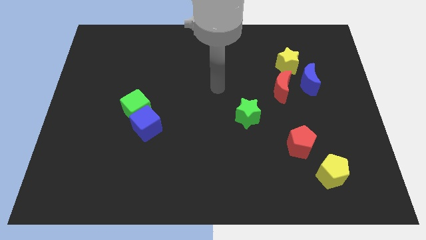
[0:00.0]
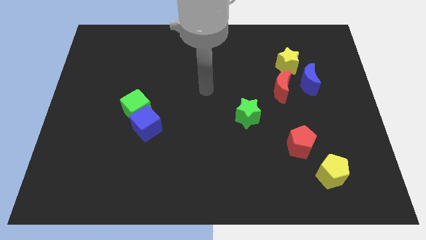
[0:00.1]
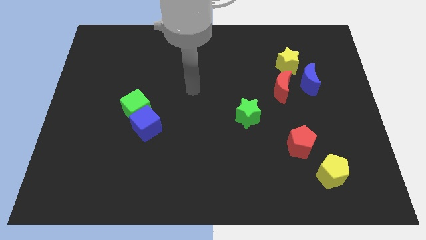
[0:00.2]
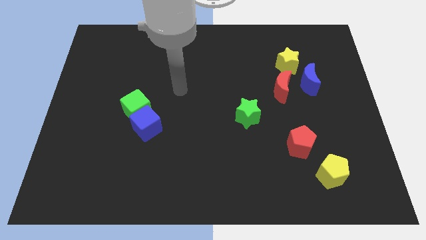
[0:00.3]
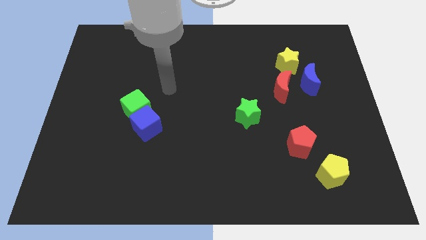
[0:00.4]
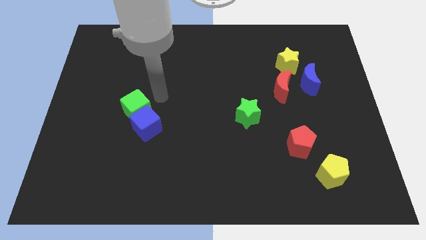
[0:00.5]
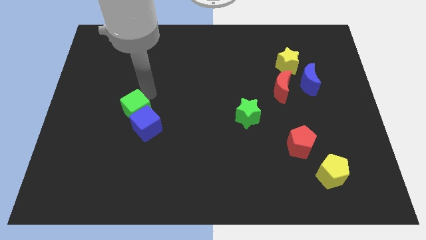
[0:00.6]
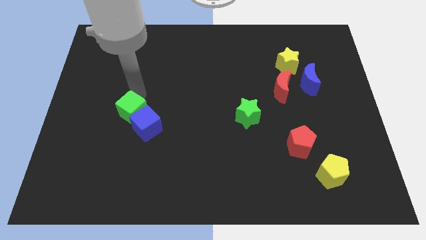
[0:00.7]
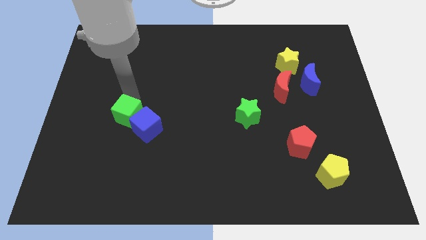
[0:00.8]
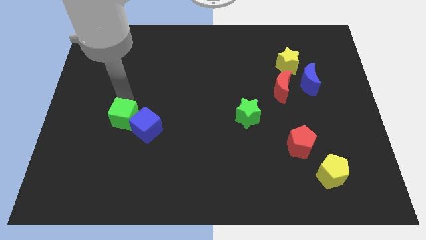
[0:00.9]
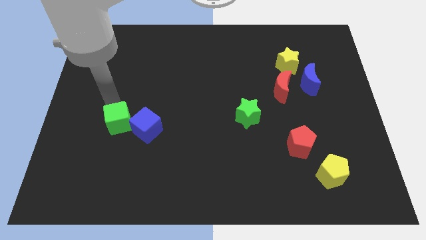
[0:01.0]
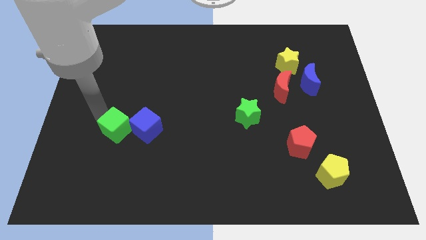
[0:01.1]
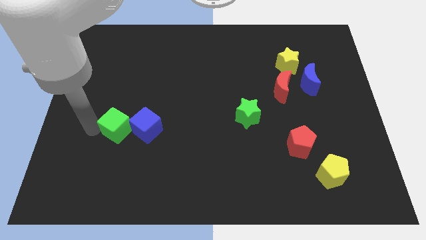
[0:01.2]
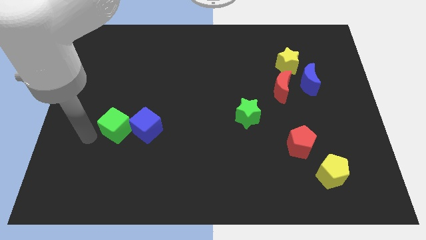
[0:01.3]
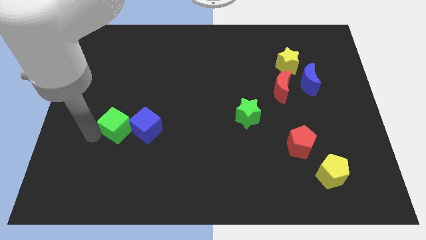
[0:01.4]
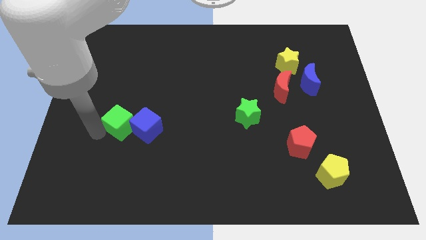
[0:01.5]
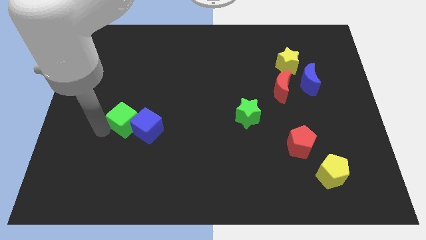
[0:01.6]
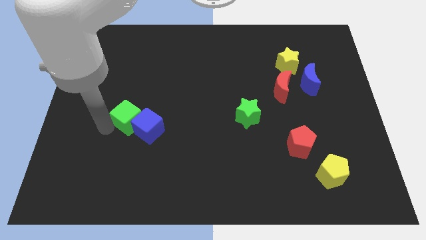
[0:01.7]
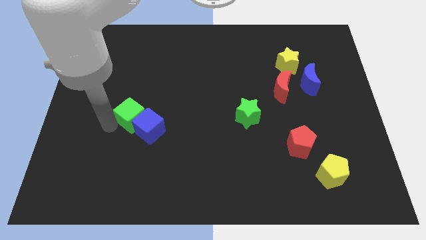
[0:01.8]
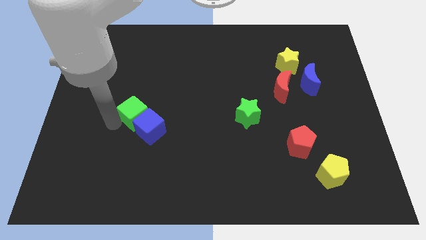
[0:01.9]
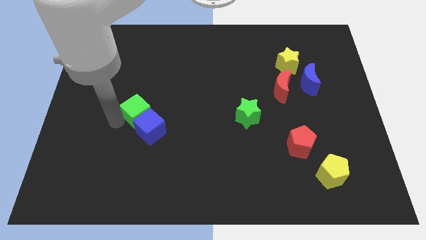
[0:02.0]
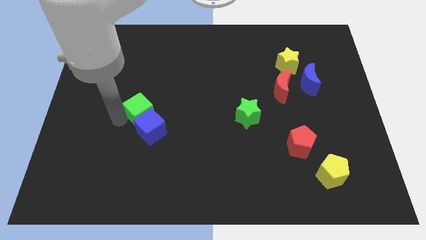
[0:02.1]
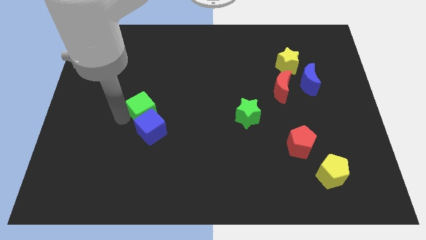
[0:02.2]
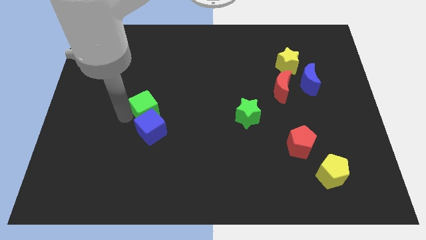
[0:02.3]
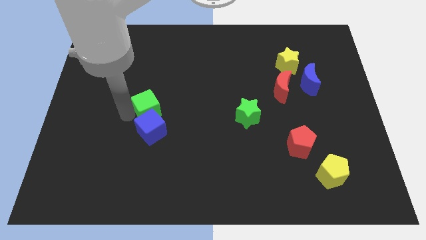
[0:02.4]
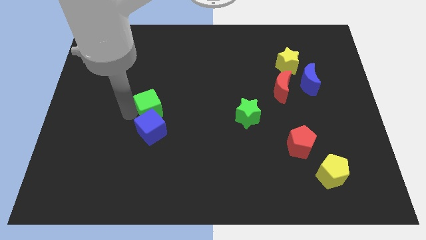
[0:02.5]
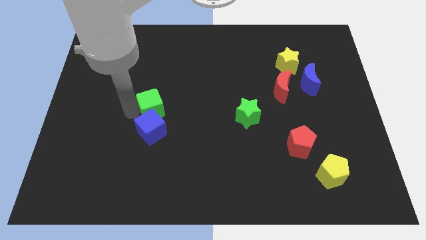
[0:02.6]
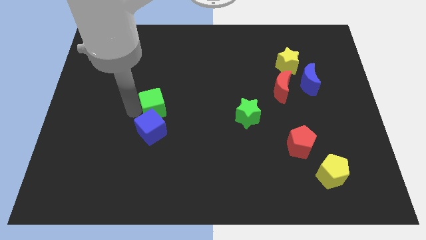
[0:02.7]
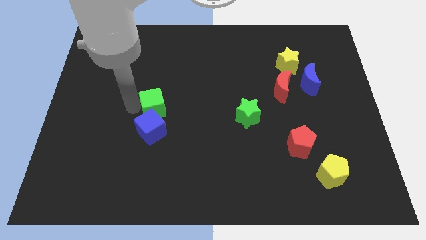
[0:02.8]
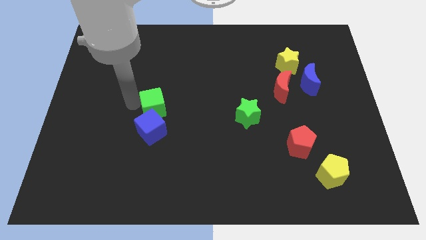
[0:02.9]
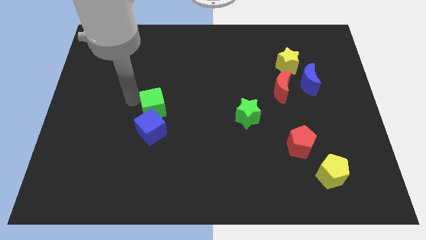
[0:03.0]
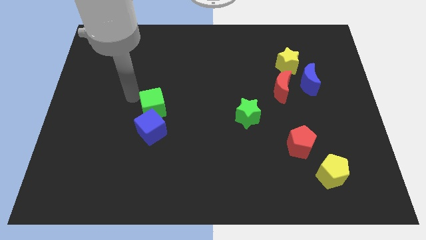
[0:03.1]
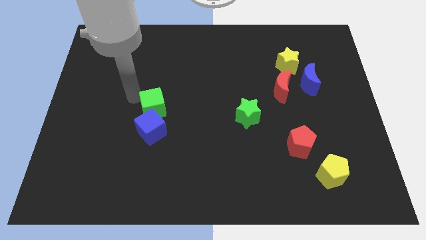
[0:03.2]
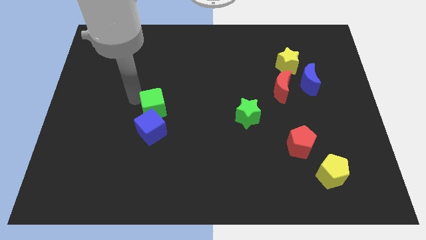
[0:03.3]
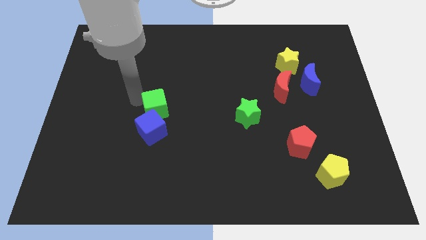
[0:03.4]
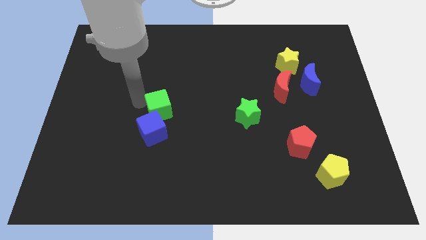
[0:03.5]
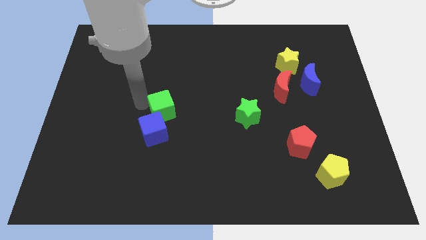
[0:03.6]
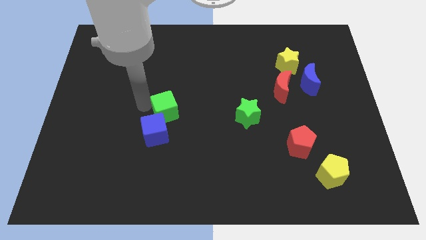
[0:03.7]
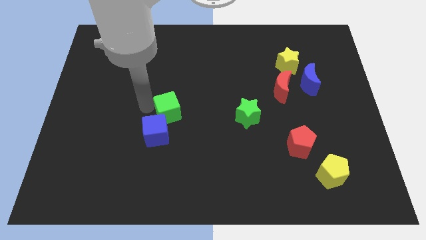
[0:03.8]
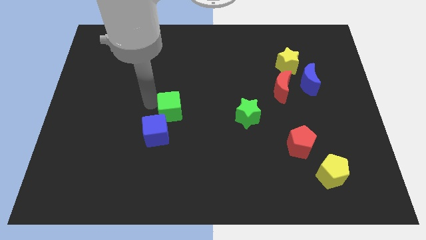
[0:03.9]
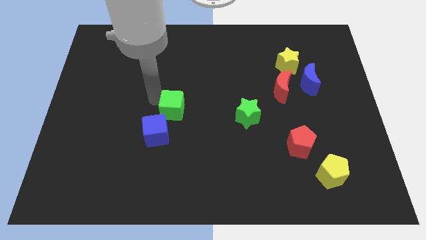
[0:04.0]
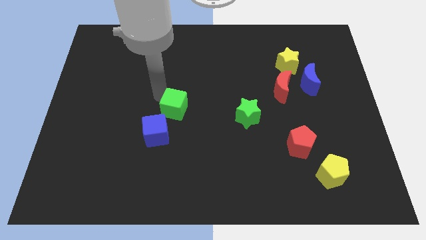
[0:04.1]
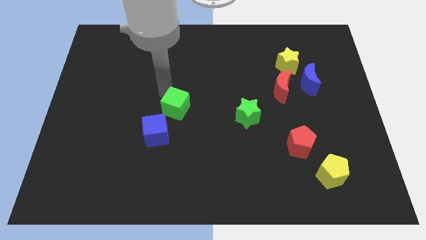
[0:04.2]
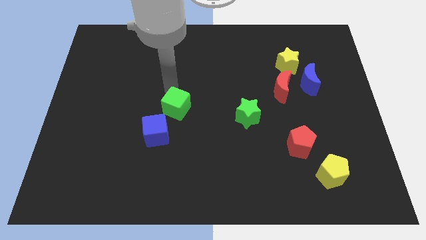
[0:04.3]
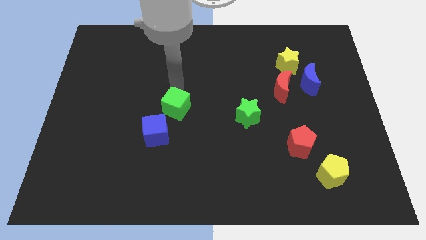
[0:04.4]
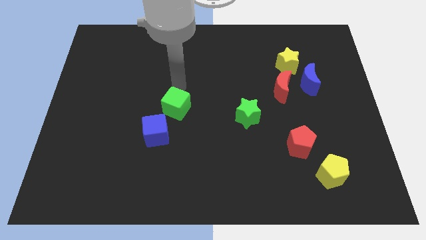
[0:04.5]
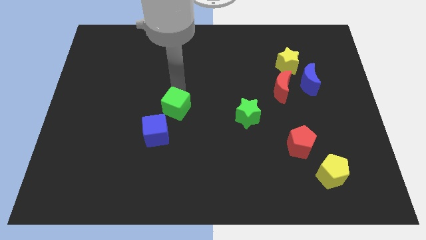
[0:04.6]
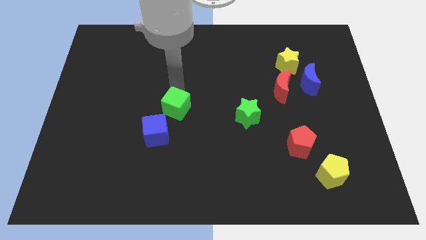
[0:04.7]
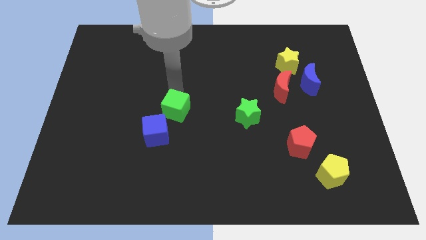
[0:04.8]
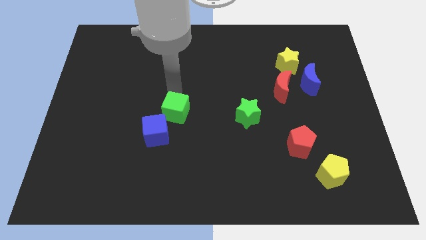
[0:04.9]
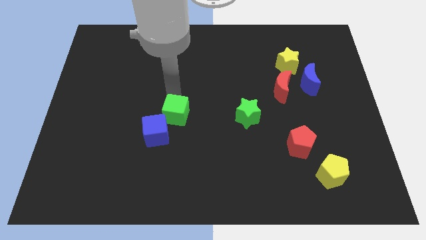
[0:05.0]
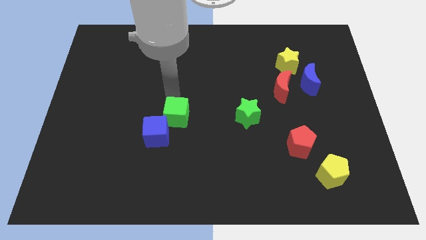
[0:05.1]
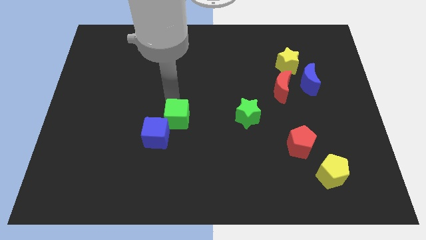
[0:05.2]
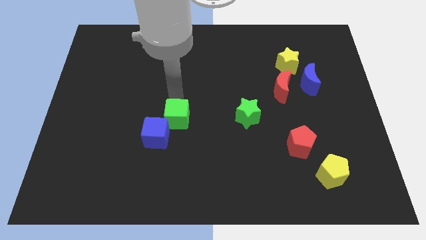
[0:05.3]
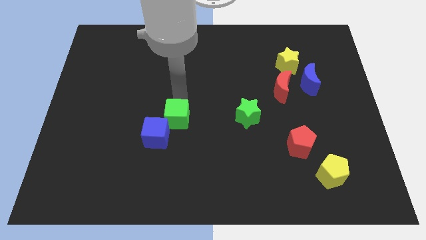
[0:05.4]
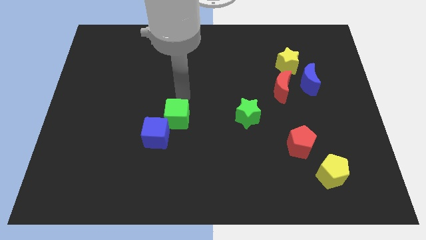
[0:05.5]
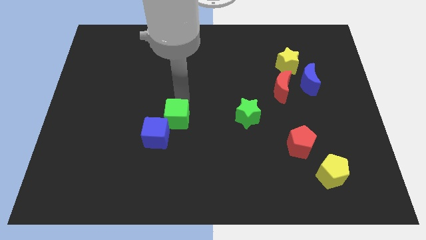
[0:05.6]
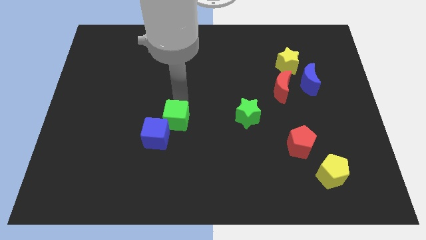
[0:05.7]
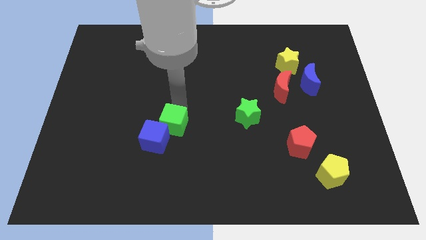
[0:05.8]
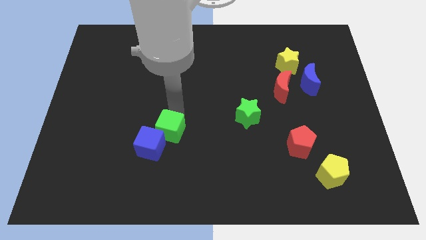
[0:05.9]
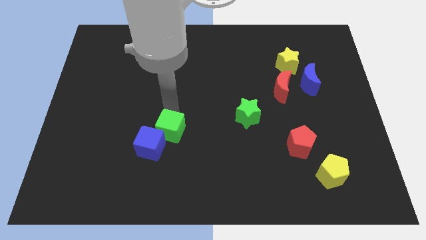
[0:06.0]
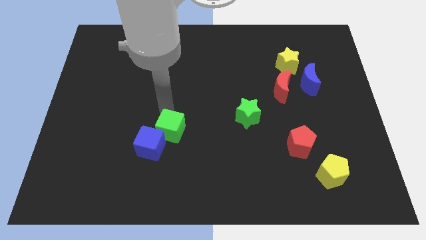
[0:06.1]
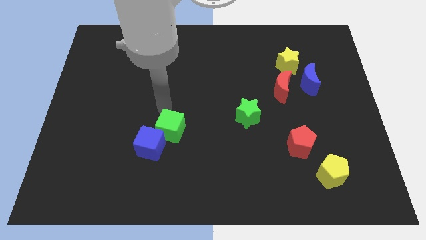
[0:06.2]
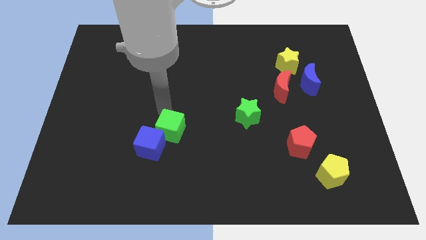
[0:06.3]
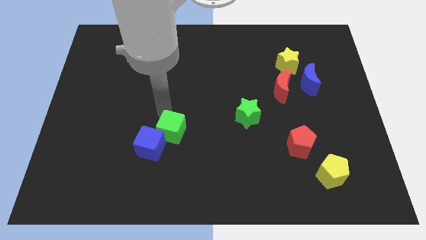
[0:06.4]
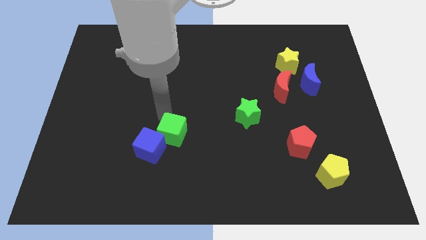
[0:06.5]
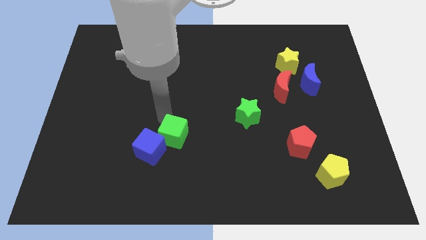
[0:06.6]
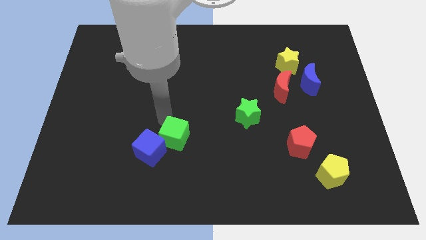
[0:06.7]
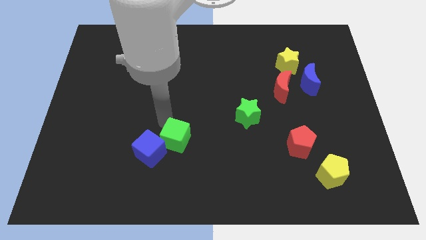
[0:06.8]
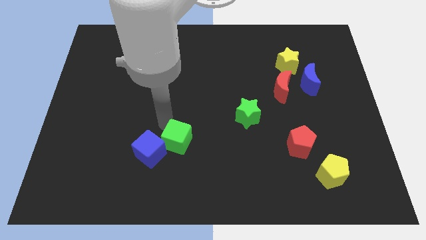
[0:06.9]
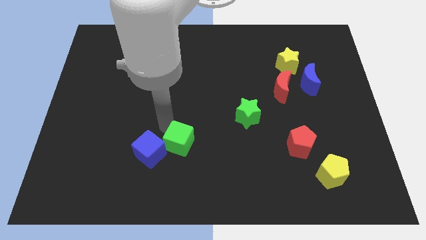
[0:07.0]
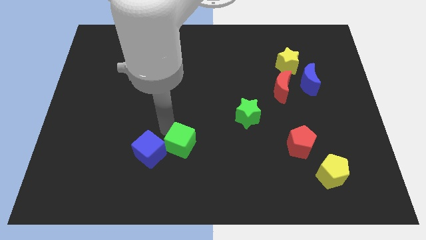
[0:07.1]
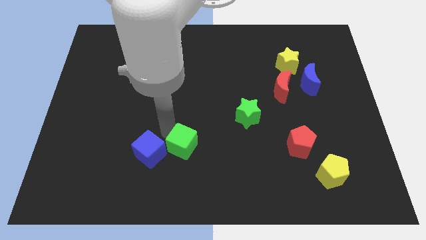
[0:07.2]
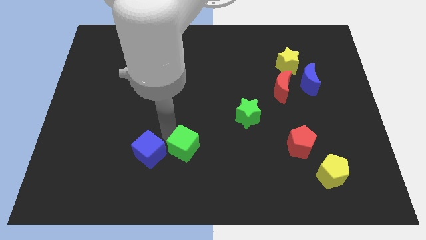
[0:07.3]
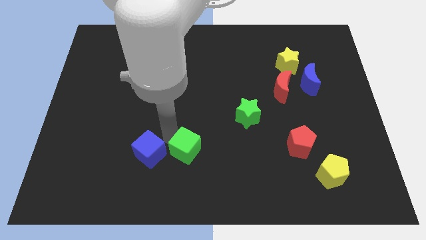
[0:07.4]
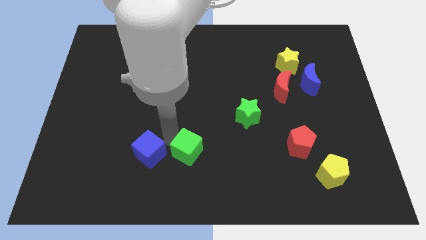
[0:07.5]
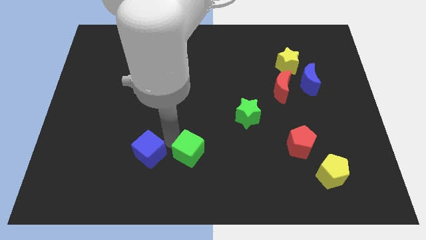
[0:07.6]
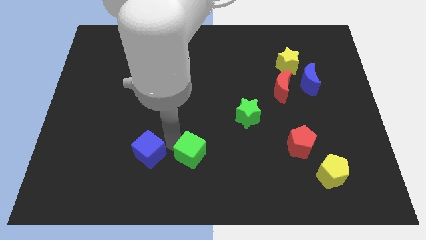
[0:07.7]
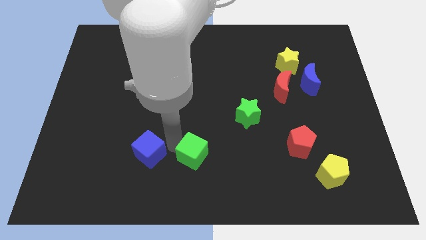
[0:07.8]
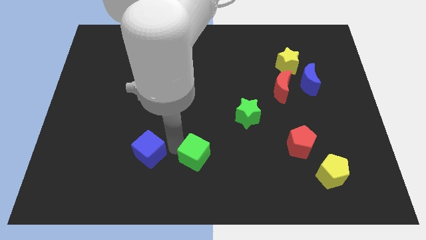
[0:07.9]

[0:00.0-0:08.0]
move the green cube to the bottom side
